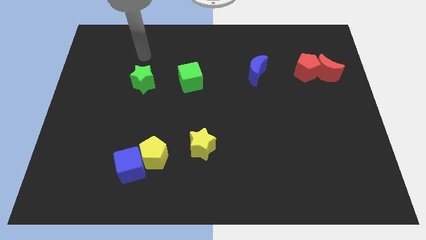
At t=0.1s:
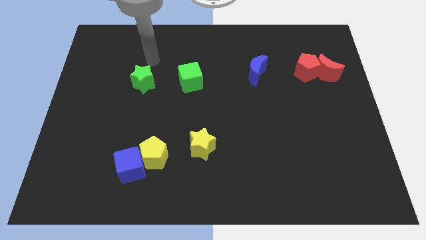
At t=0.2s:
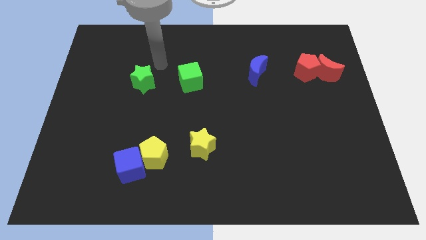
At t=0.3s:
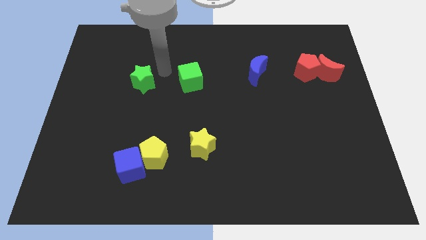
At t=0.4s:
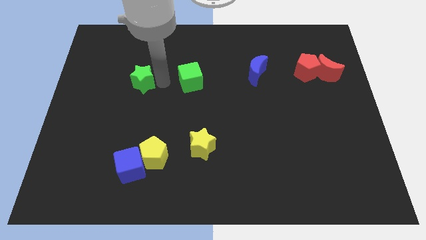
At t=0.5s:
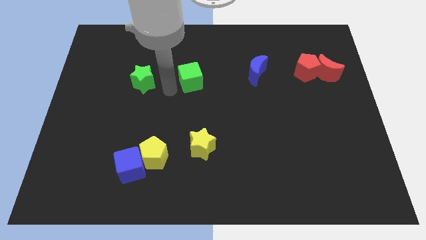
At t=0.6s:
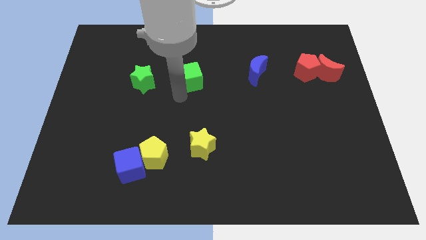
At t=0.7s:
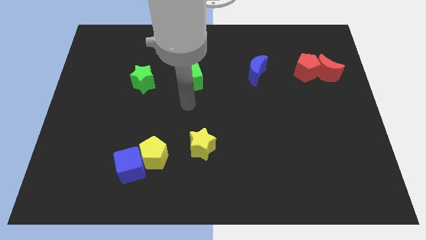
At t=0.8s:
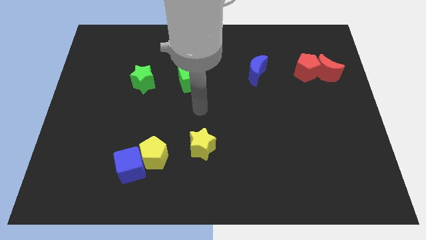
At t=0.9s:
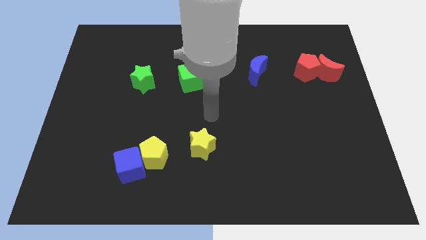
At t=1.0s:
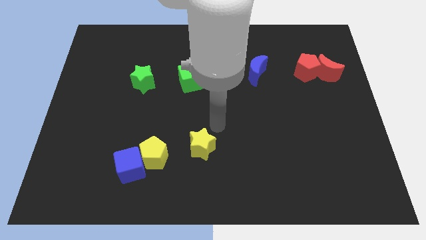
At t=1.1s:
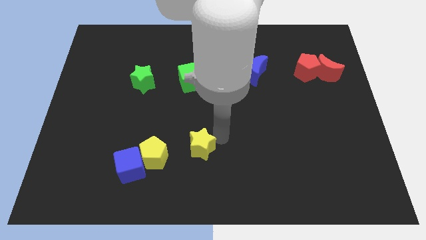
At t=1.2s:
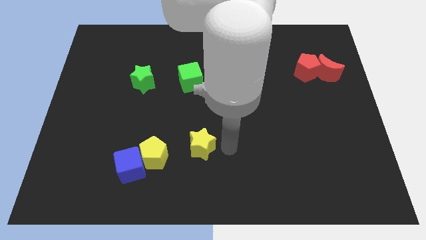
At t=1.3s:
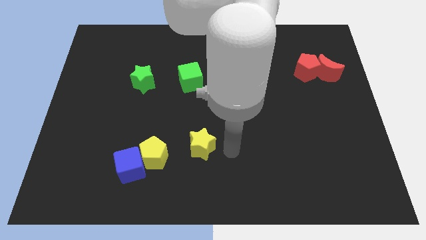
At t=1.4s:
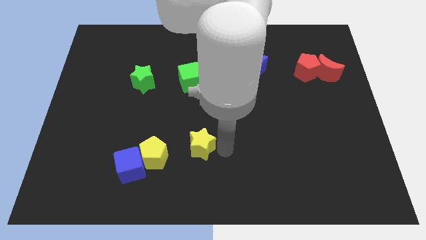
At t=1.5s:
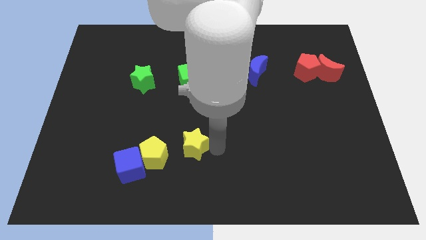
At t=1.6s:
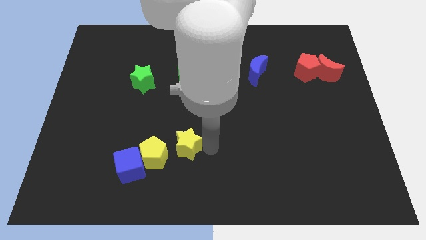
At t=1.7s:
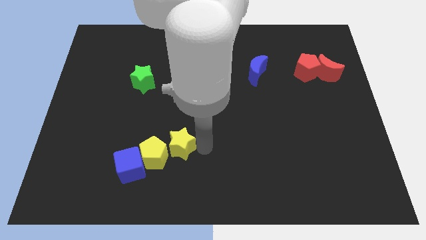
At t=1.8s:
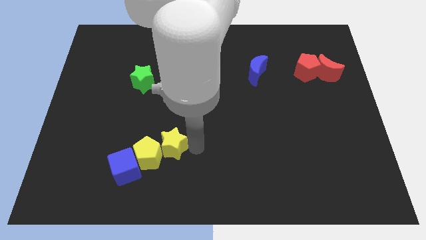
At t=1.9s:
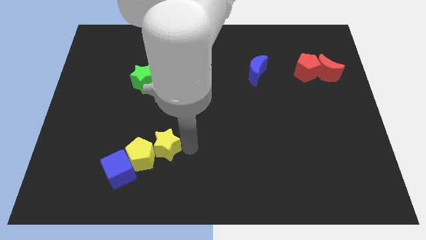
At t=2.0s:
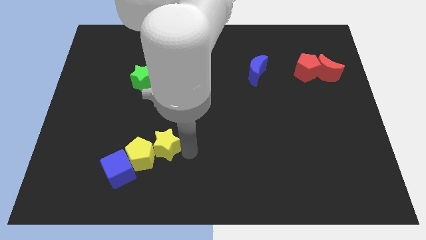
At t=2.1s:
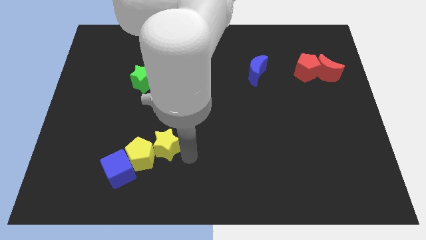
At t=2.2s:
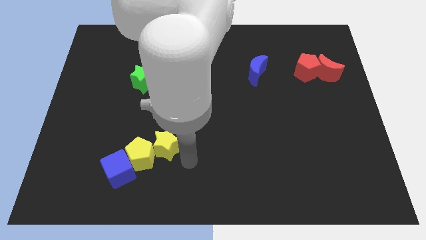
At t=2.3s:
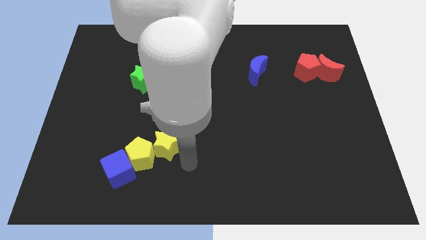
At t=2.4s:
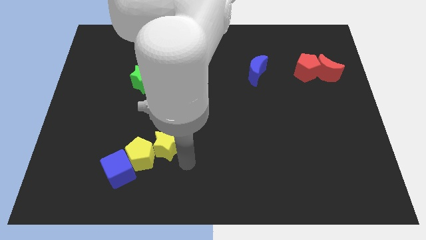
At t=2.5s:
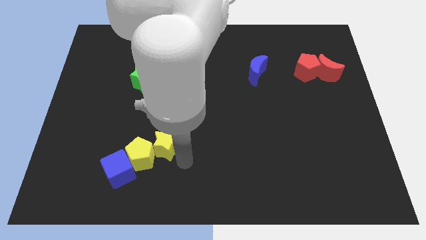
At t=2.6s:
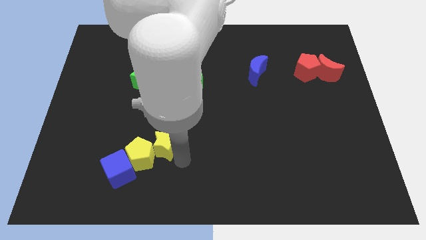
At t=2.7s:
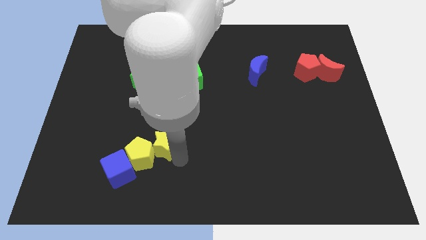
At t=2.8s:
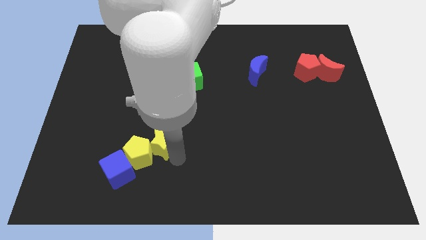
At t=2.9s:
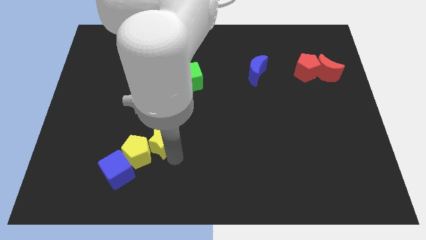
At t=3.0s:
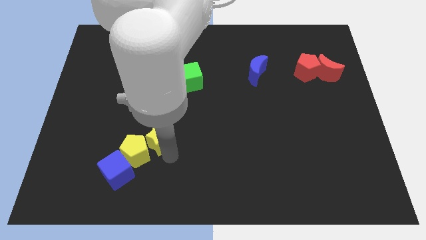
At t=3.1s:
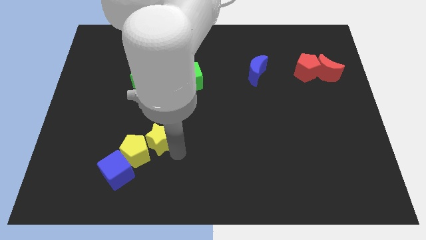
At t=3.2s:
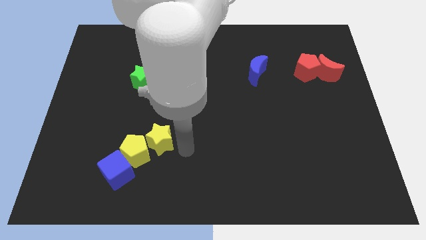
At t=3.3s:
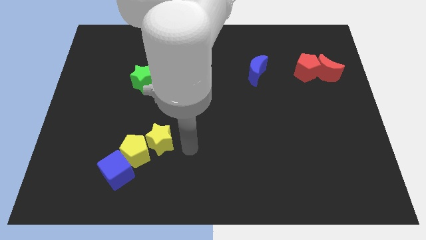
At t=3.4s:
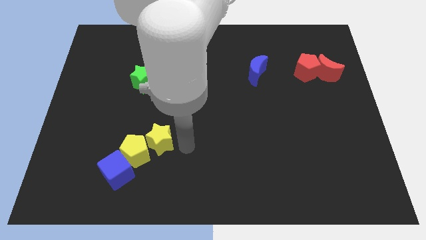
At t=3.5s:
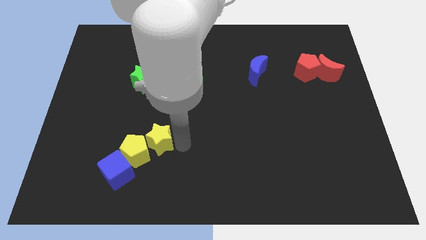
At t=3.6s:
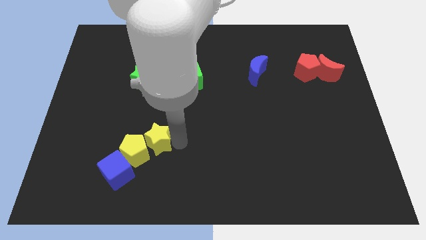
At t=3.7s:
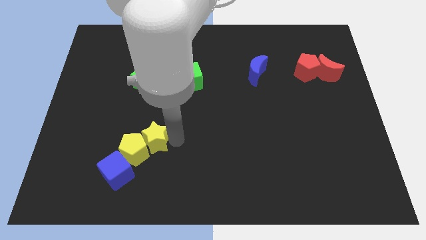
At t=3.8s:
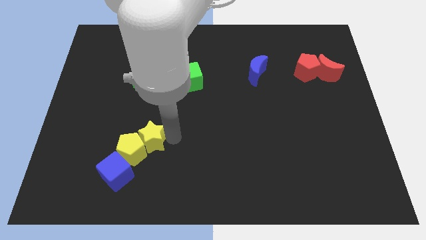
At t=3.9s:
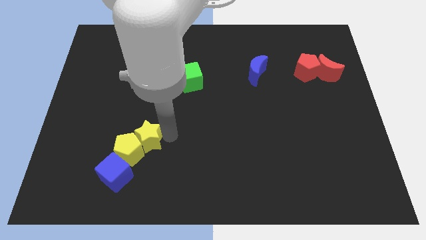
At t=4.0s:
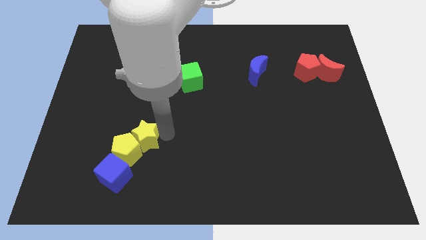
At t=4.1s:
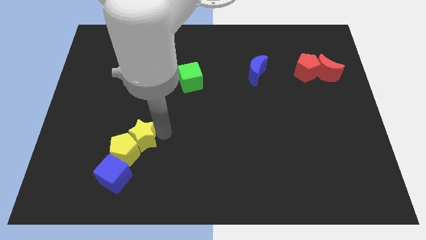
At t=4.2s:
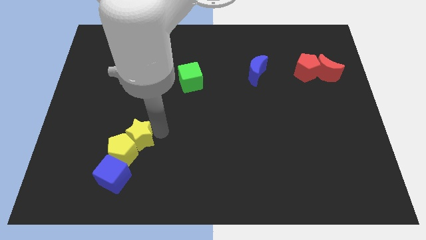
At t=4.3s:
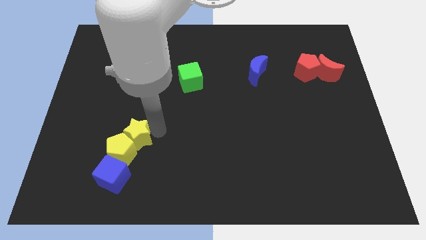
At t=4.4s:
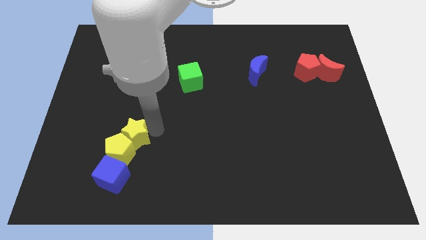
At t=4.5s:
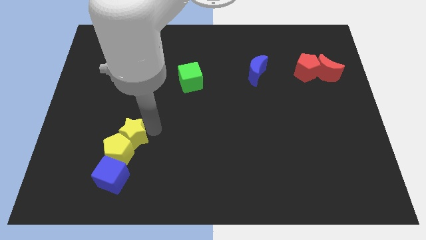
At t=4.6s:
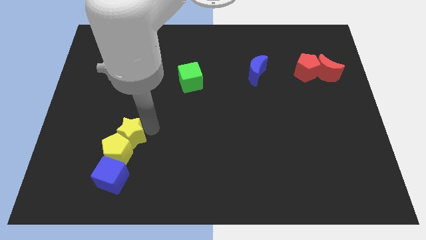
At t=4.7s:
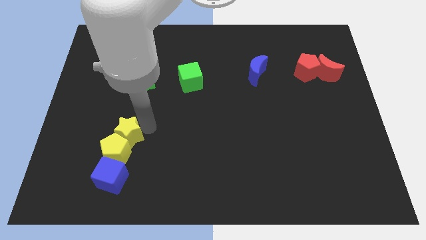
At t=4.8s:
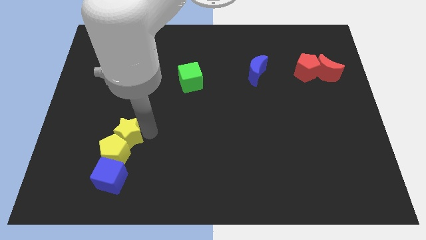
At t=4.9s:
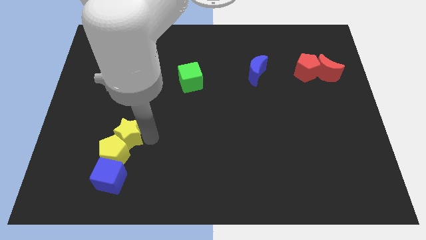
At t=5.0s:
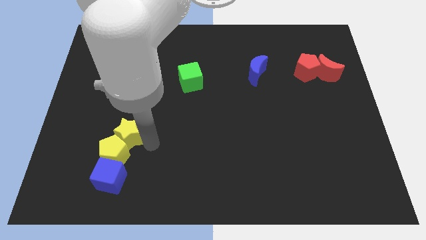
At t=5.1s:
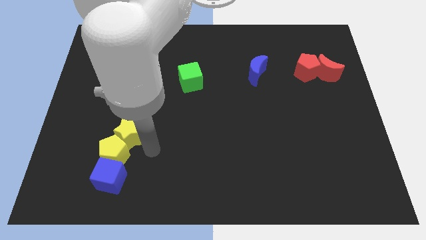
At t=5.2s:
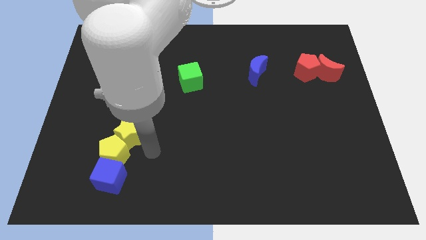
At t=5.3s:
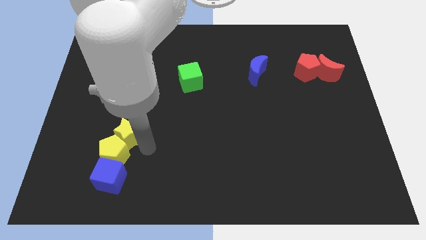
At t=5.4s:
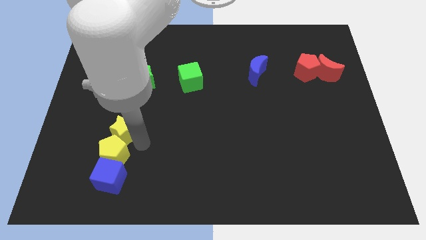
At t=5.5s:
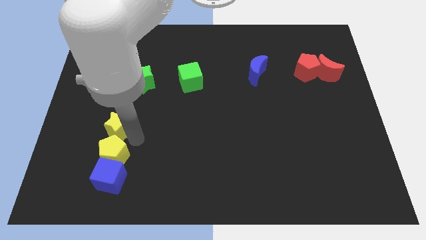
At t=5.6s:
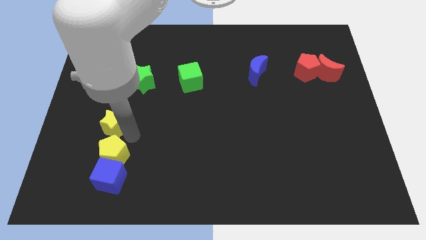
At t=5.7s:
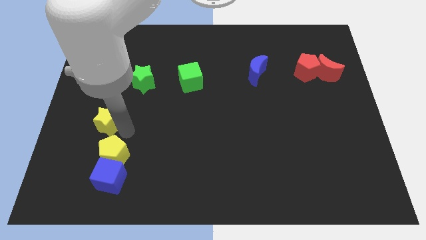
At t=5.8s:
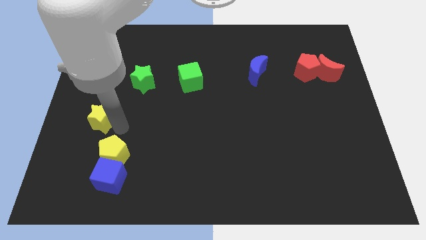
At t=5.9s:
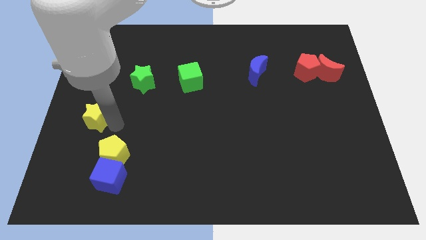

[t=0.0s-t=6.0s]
slide the yellow star to the left side

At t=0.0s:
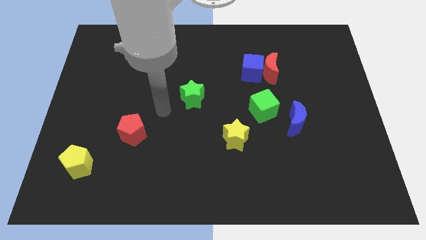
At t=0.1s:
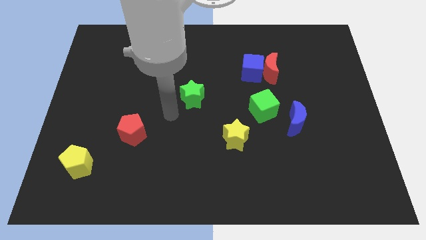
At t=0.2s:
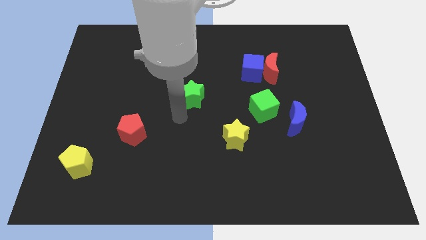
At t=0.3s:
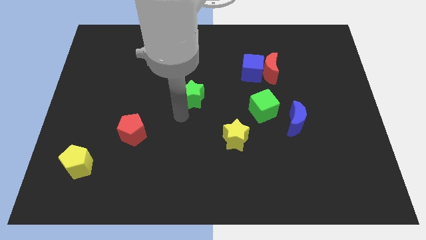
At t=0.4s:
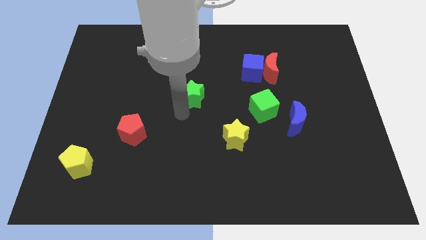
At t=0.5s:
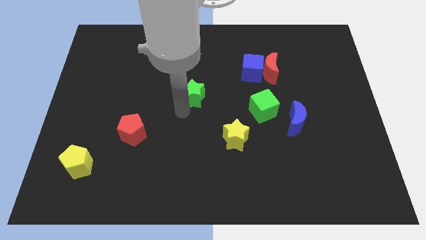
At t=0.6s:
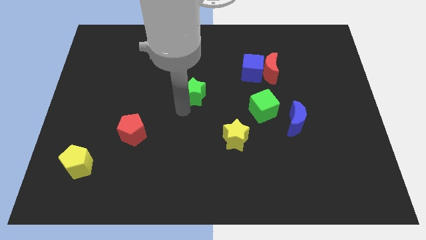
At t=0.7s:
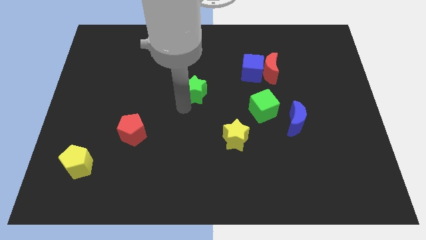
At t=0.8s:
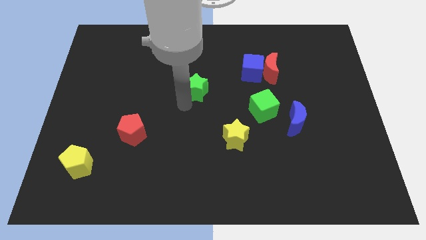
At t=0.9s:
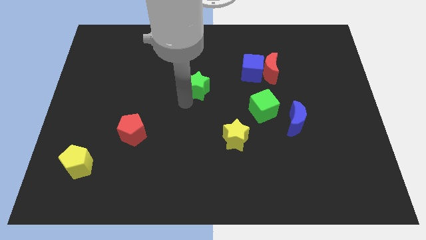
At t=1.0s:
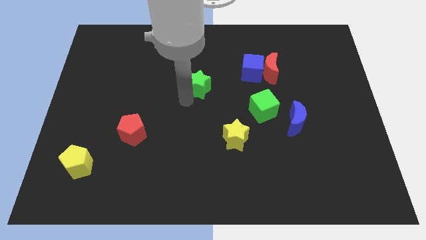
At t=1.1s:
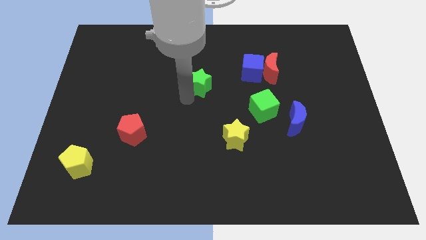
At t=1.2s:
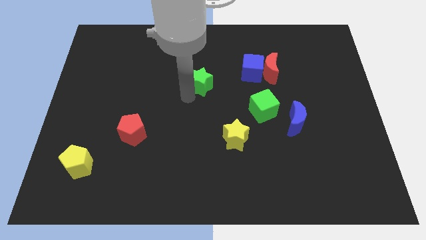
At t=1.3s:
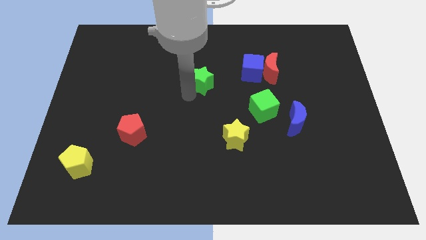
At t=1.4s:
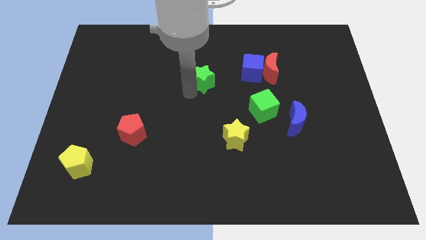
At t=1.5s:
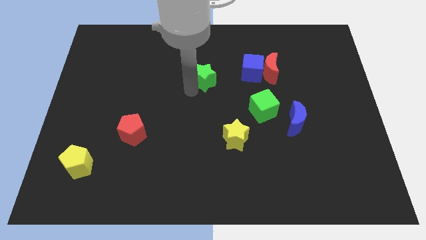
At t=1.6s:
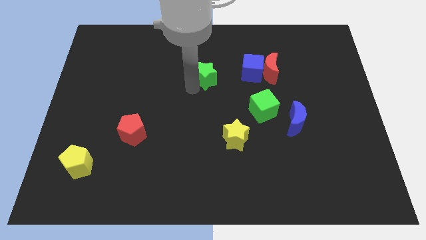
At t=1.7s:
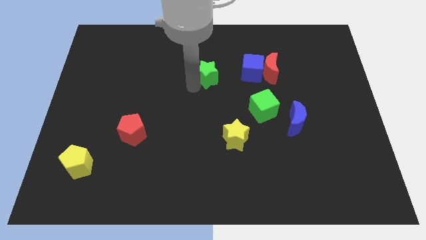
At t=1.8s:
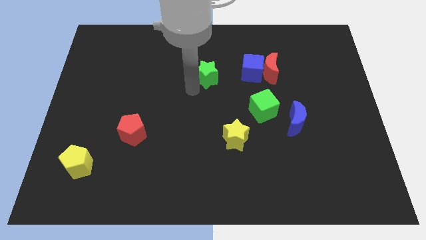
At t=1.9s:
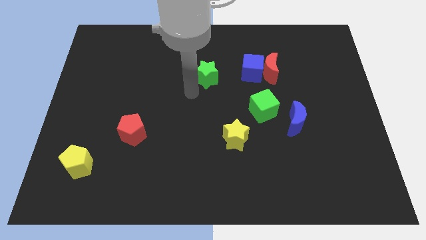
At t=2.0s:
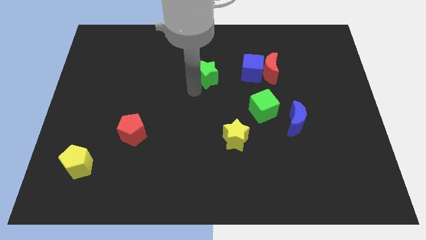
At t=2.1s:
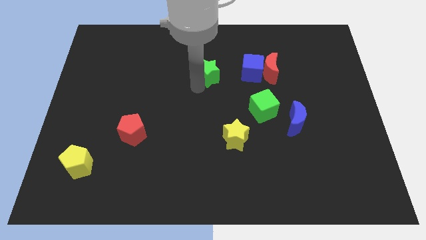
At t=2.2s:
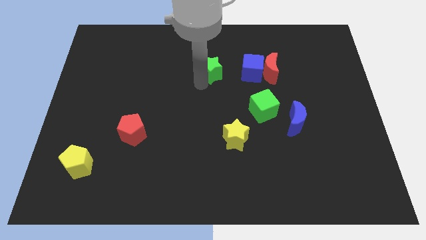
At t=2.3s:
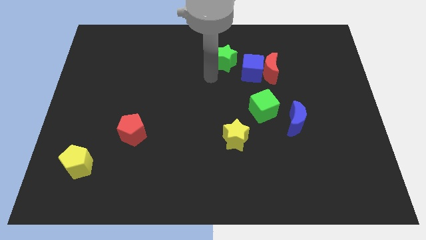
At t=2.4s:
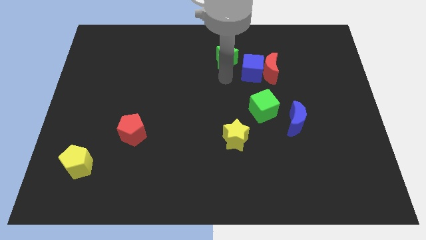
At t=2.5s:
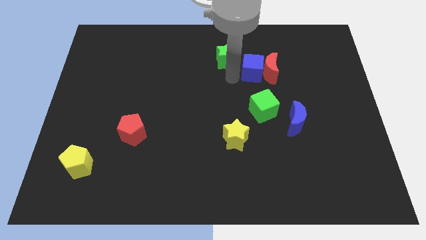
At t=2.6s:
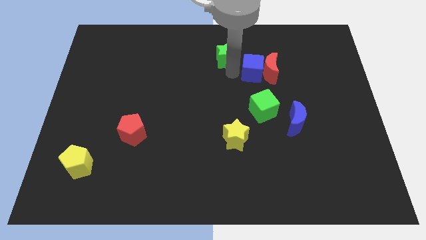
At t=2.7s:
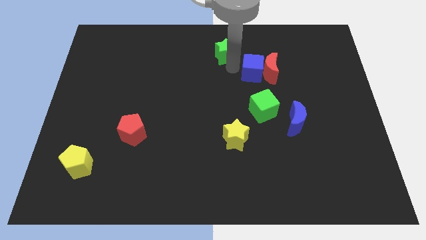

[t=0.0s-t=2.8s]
push the green star to the top side
